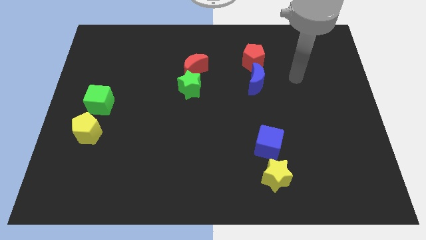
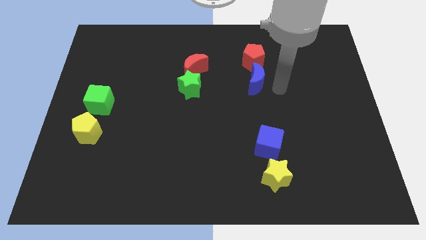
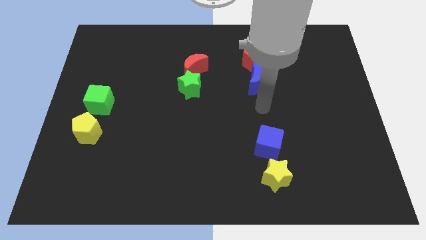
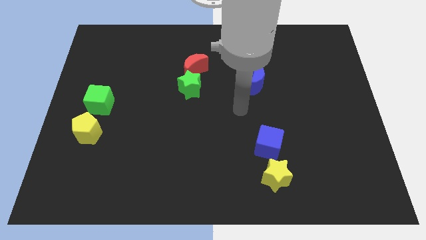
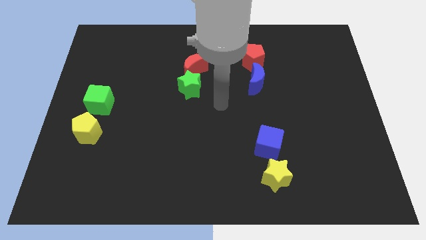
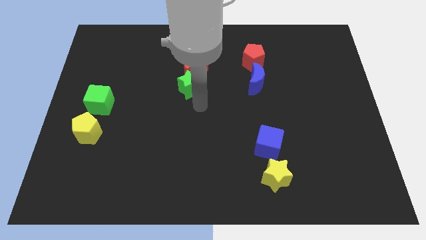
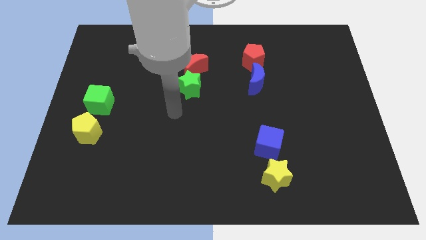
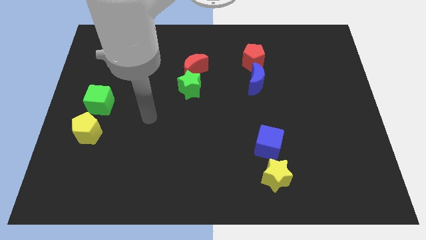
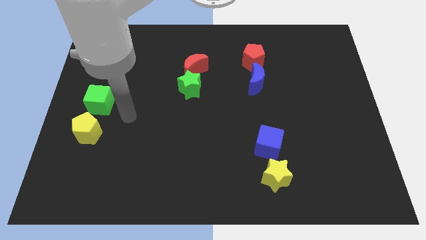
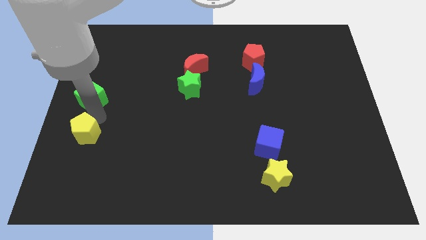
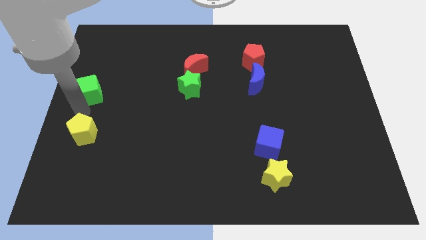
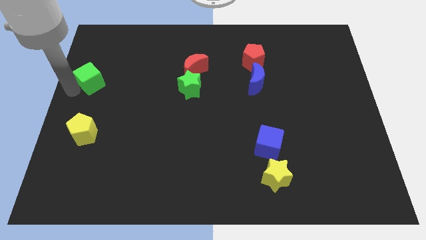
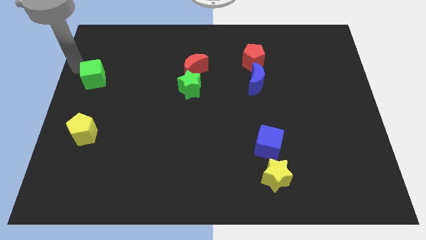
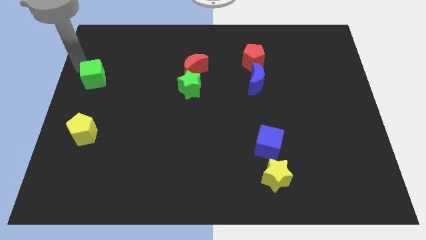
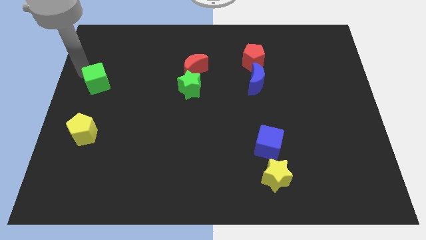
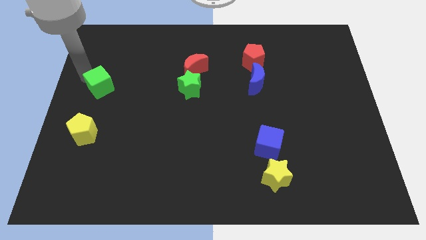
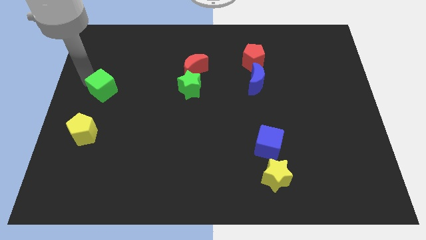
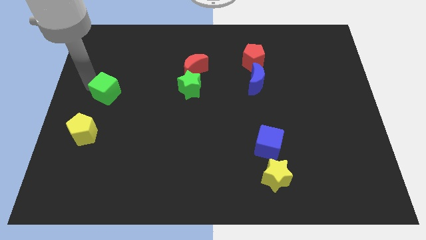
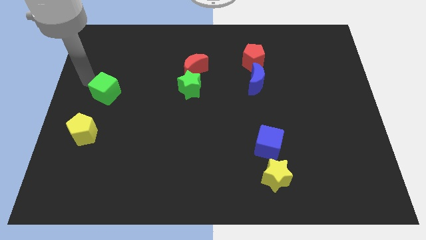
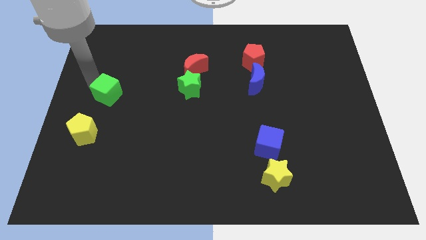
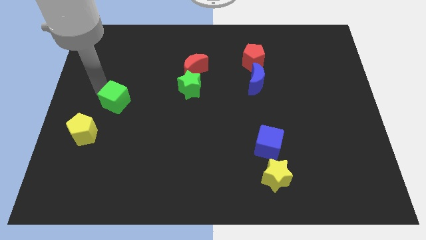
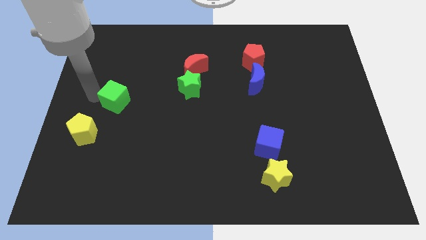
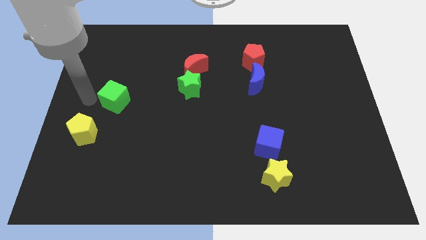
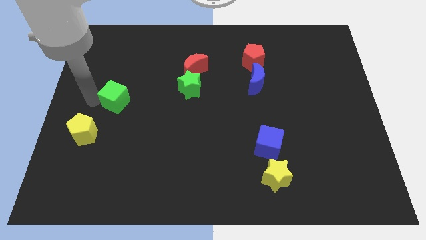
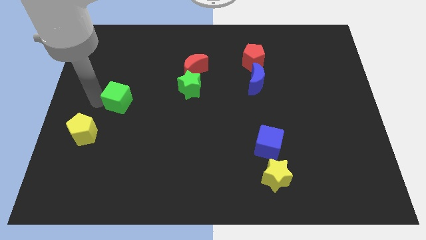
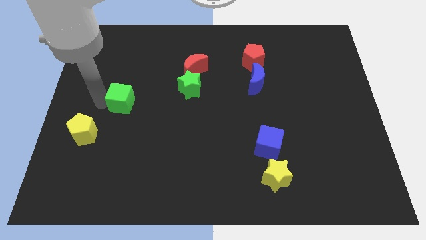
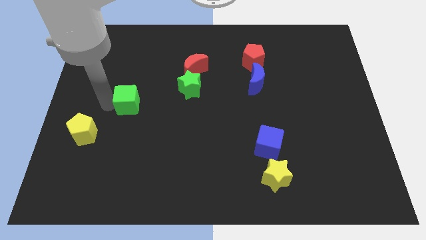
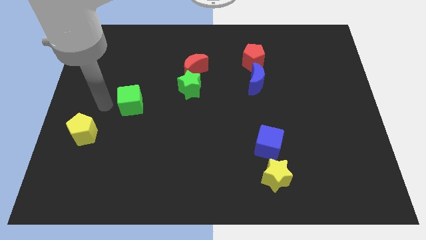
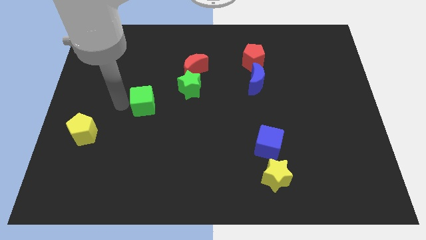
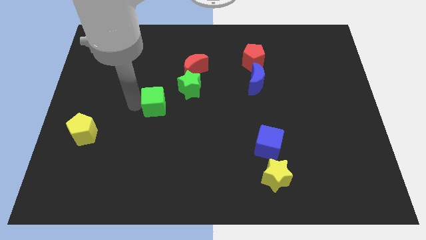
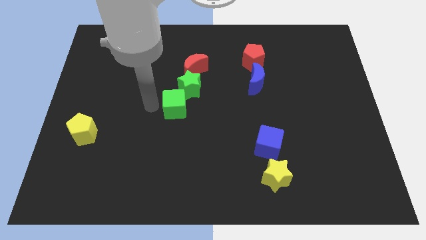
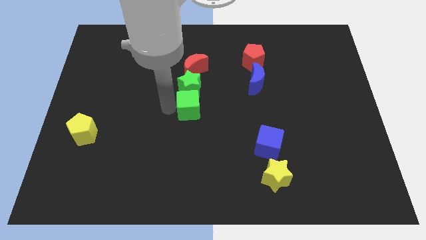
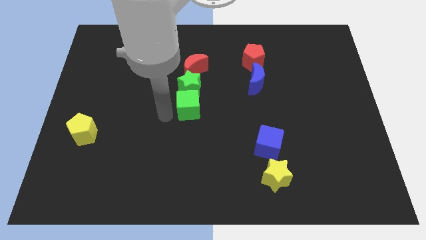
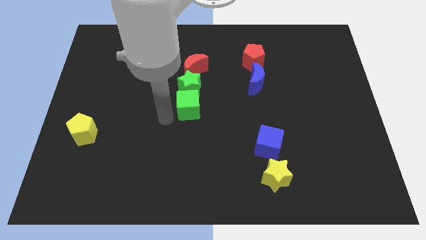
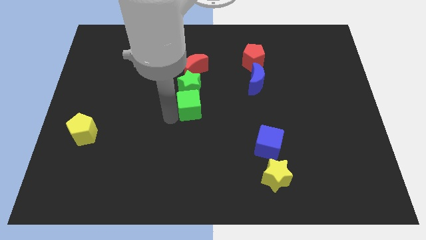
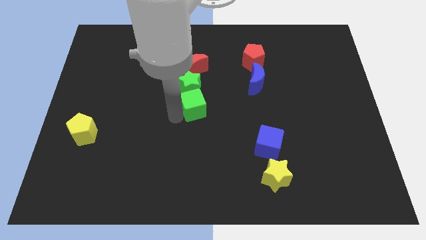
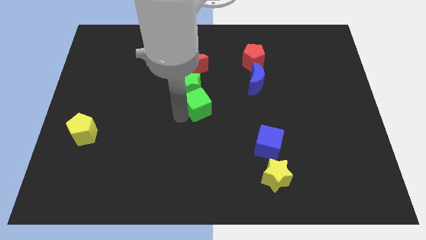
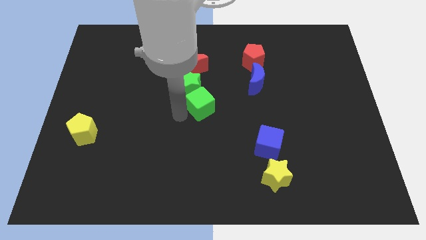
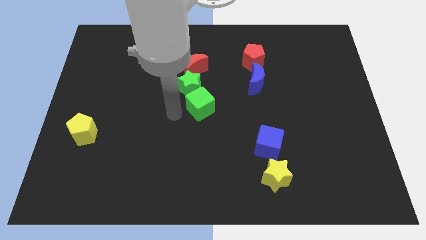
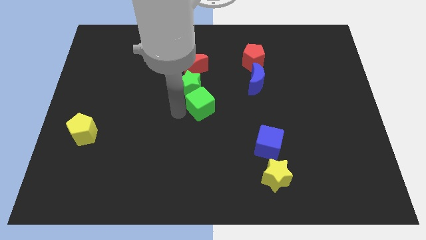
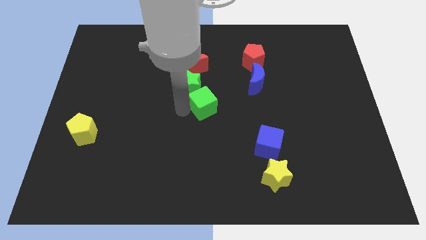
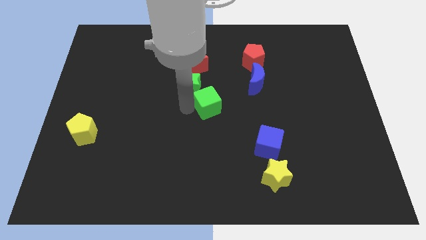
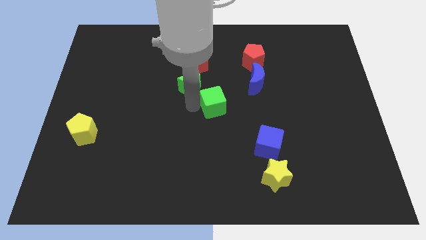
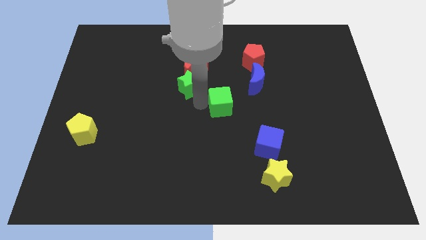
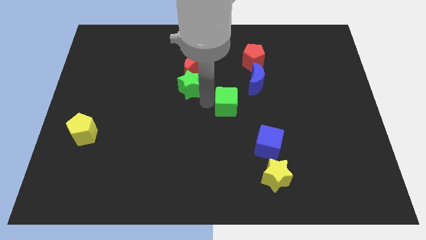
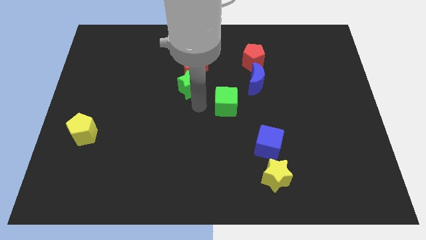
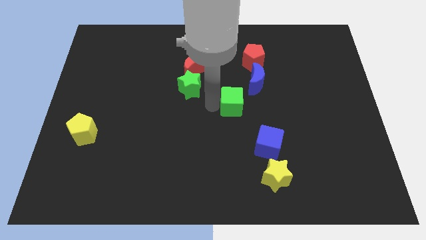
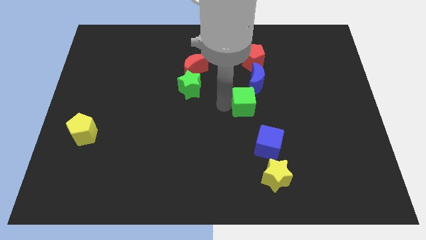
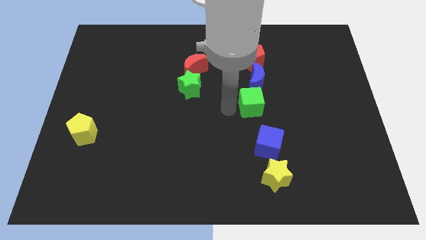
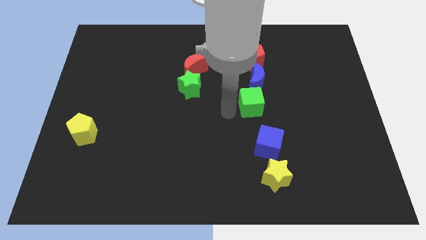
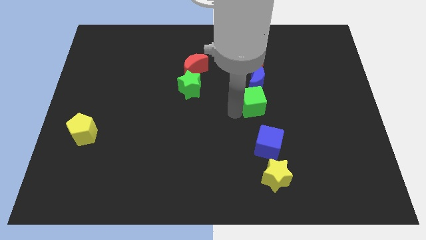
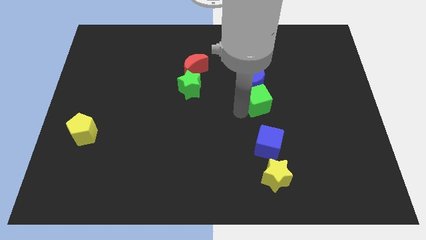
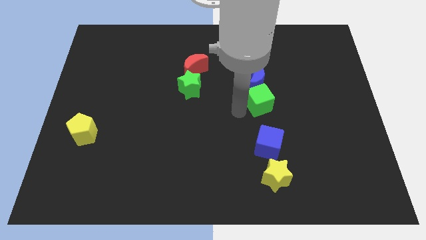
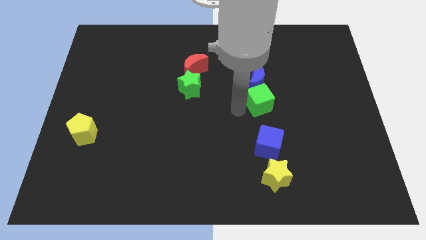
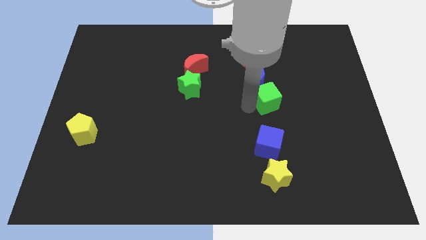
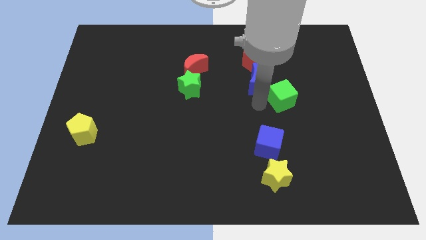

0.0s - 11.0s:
slide the green cube right of the blue moon

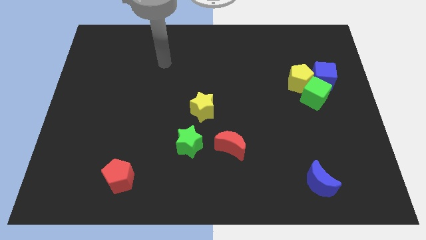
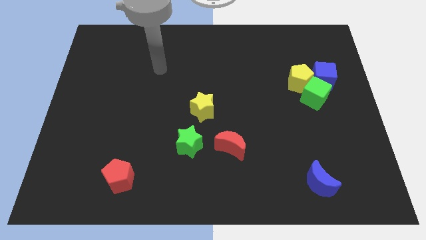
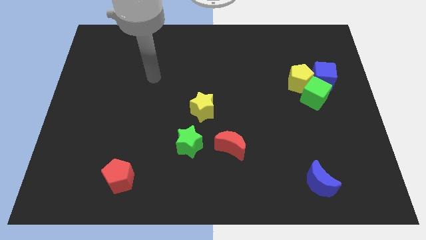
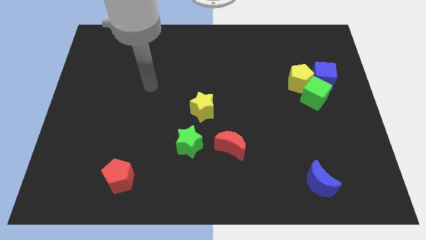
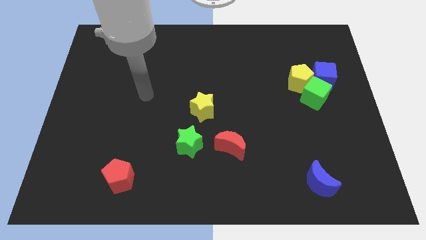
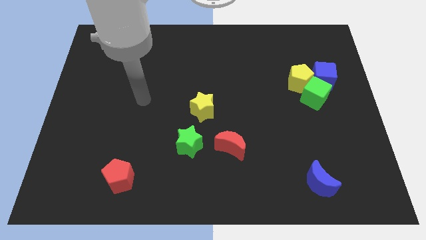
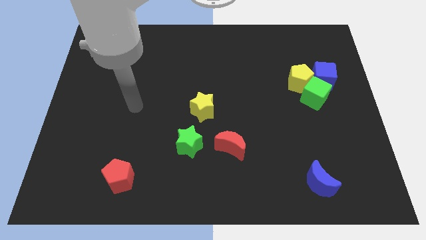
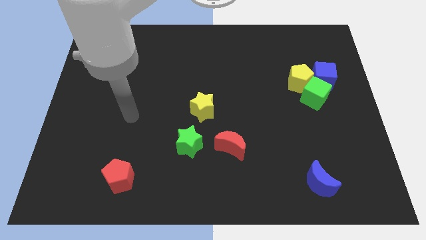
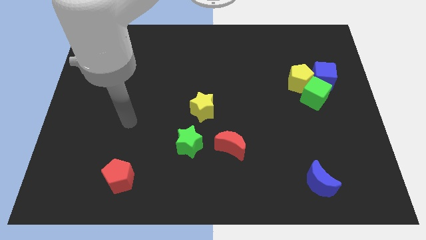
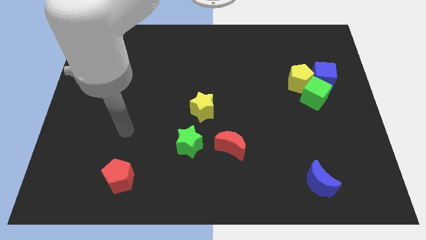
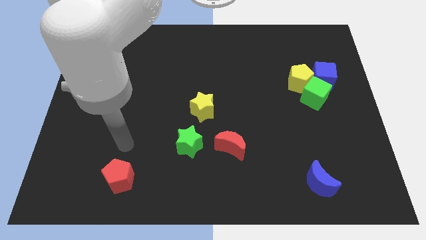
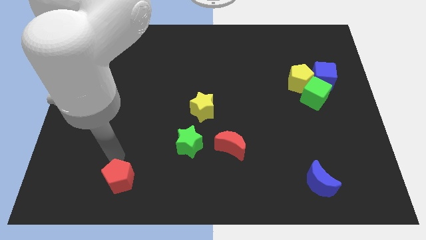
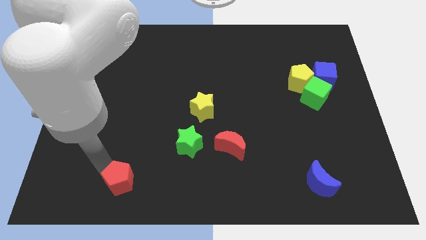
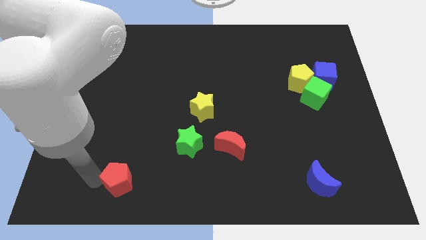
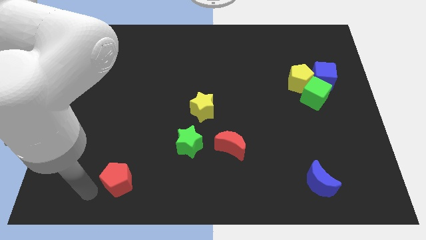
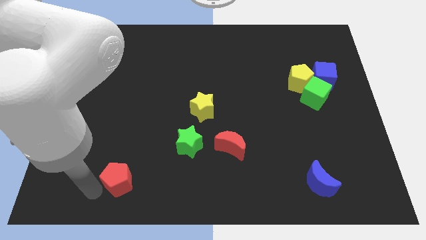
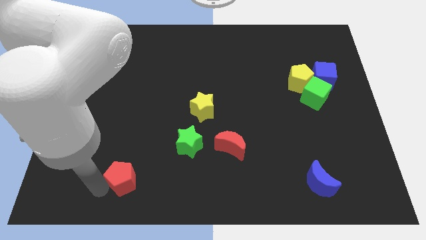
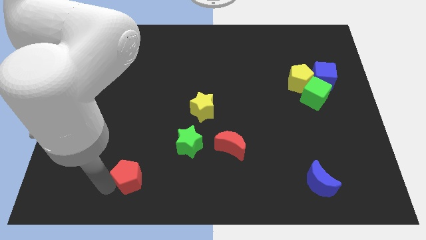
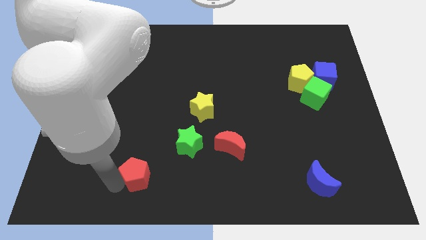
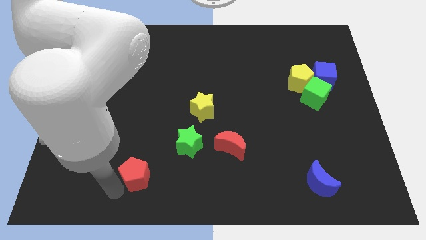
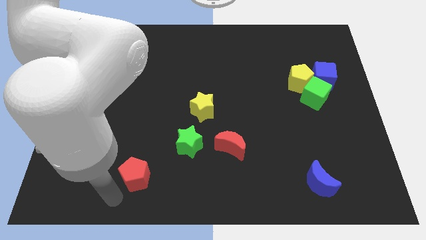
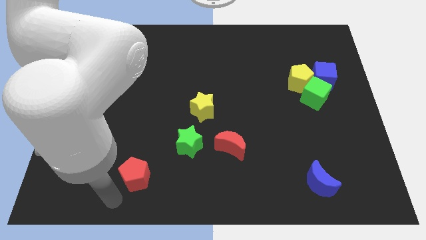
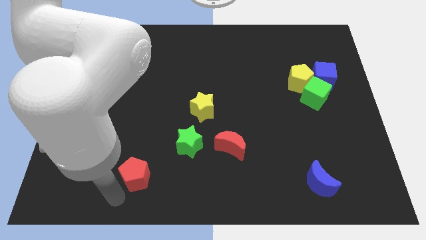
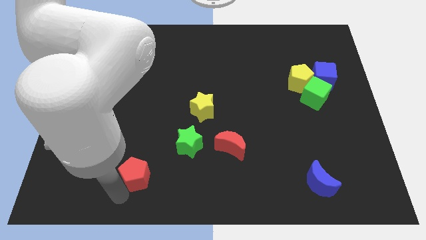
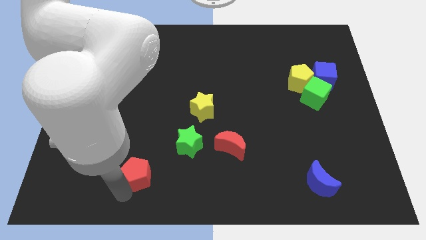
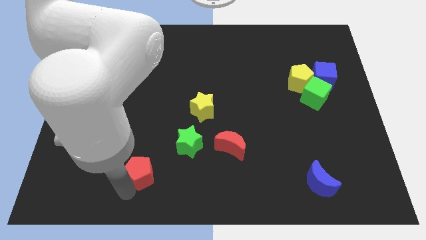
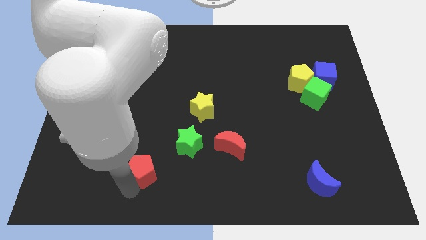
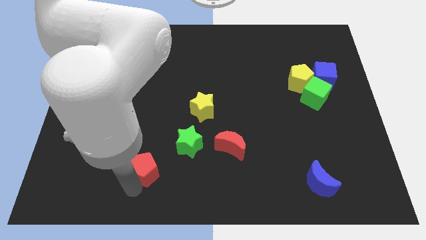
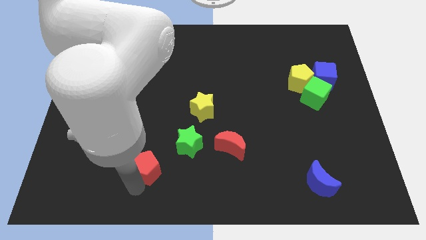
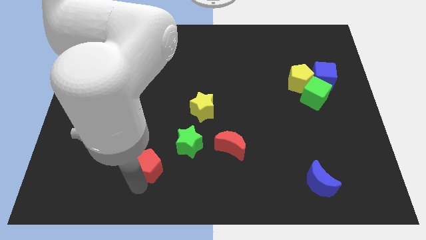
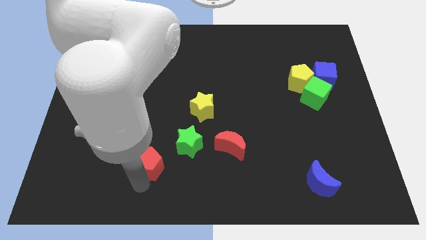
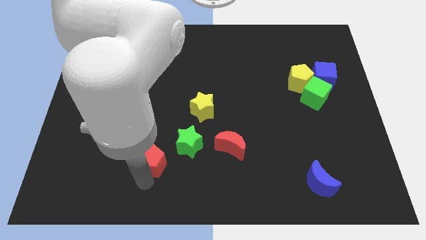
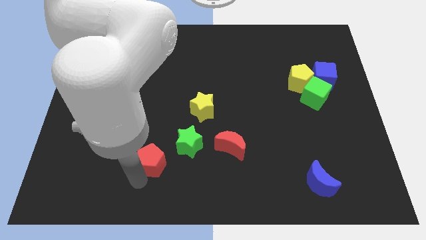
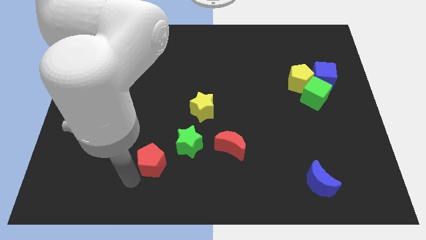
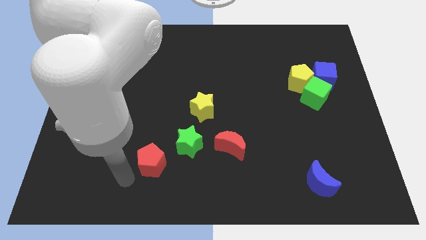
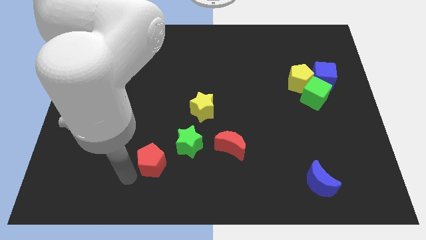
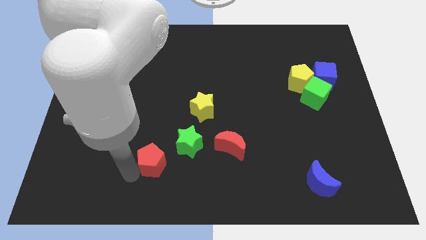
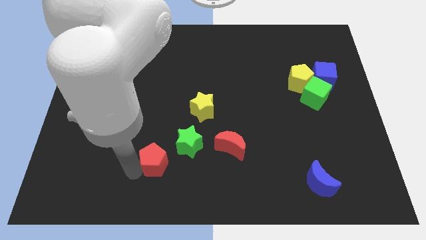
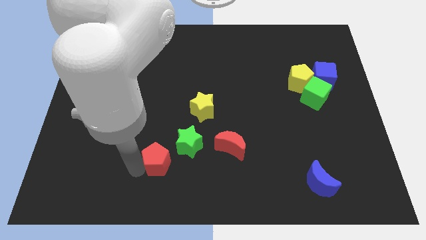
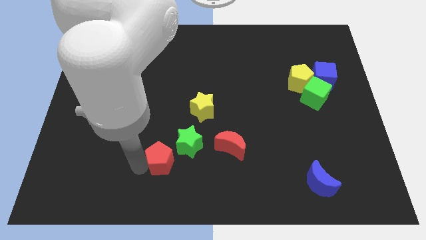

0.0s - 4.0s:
push the red pentagon to the left of the red moon
